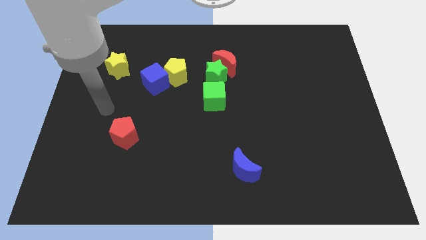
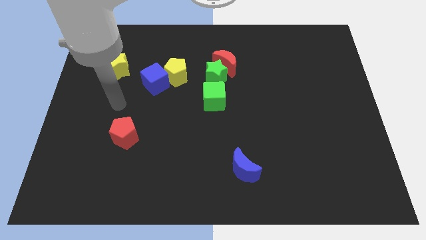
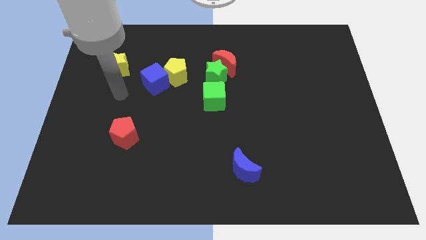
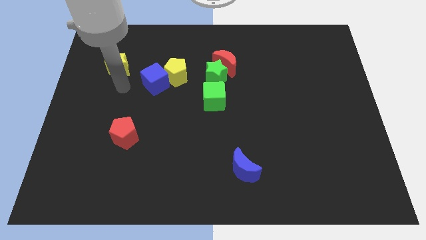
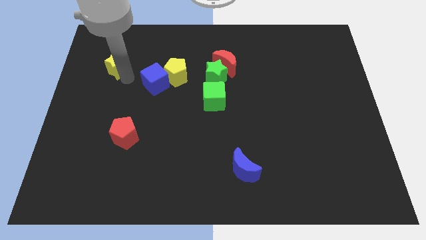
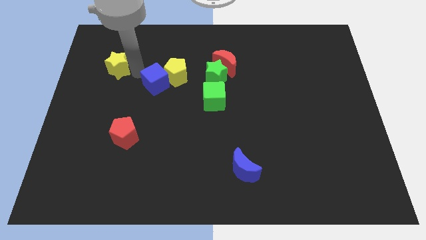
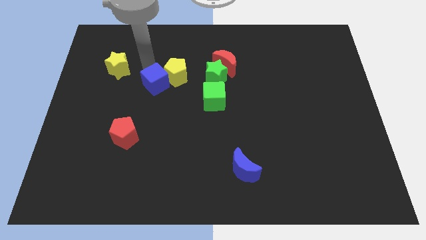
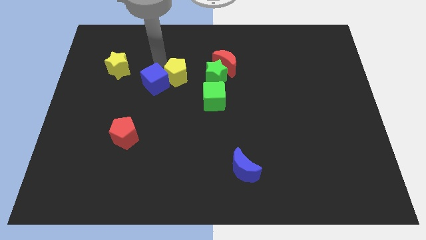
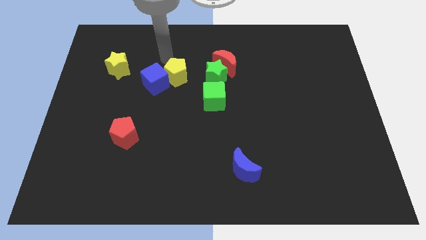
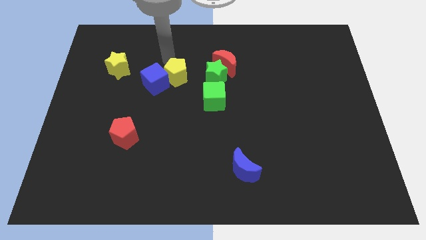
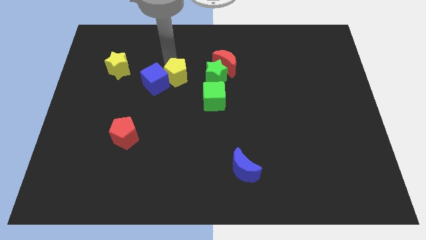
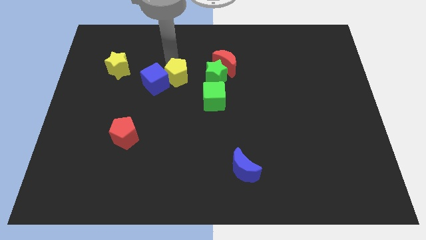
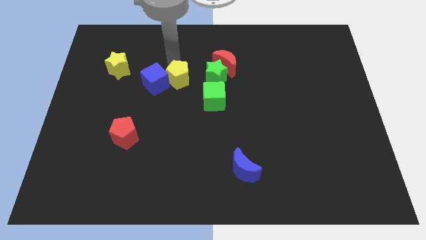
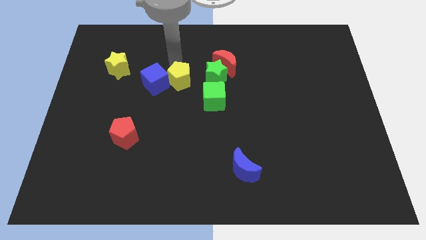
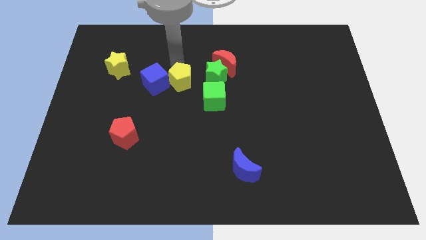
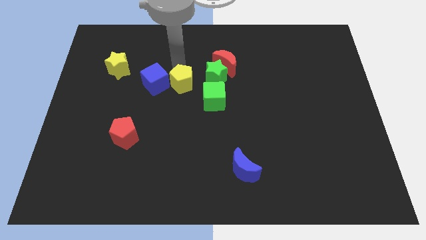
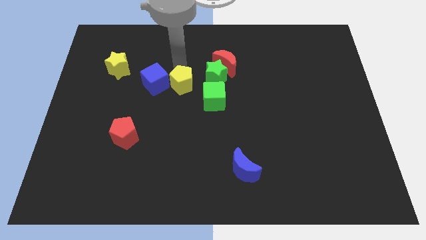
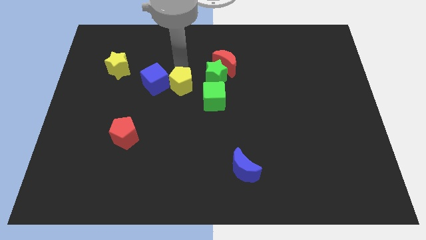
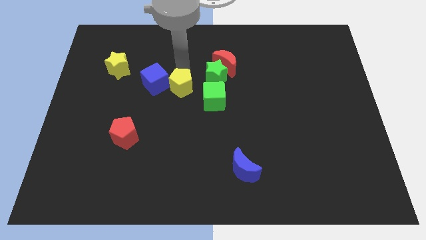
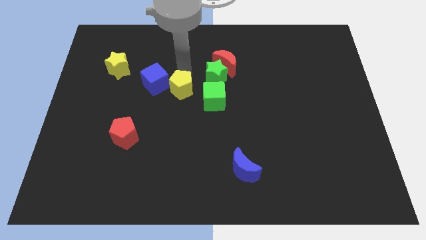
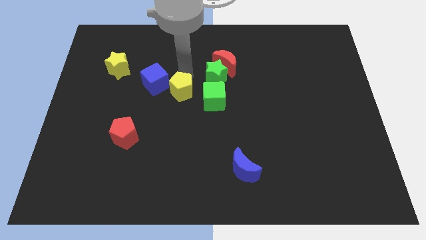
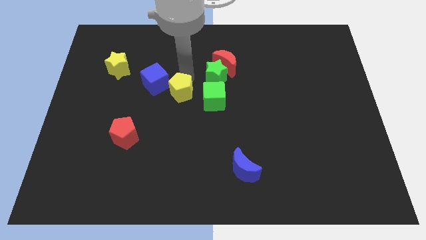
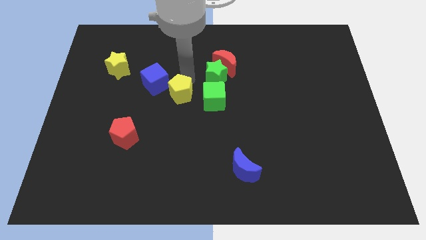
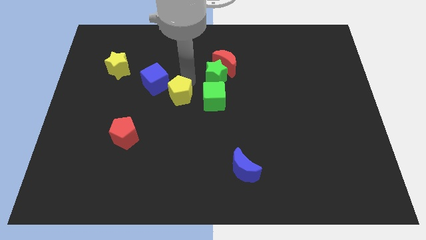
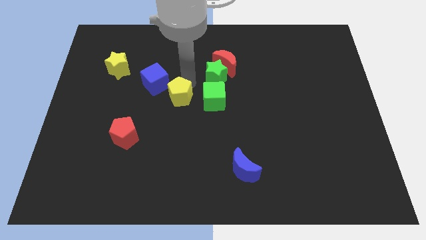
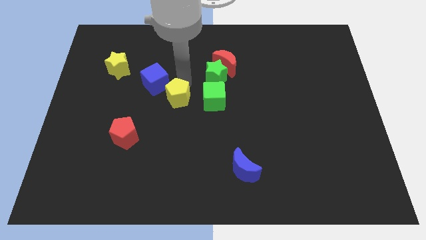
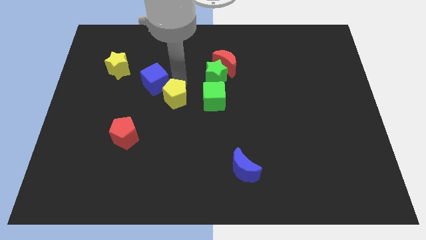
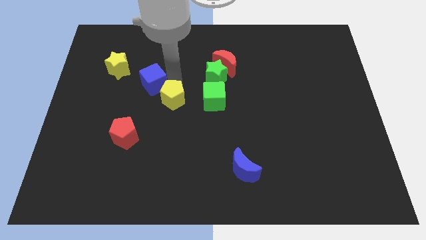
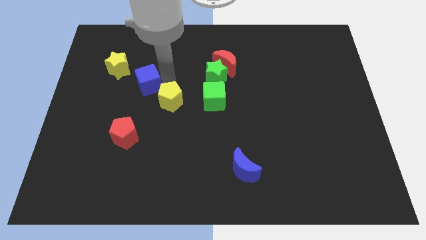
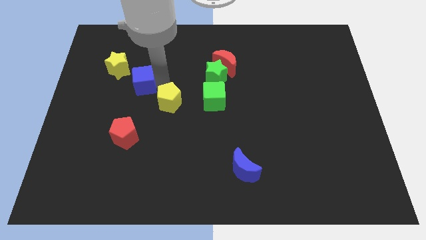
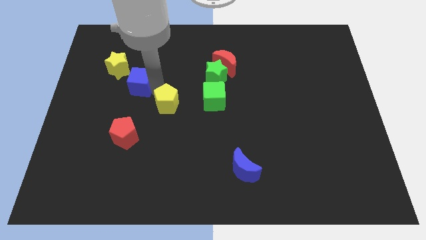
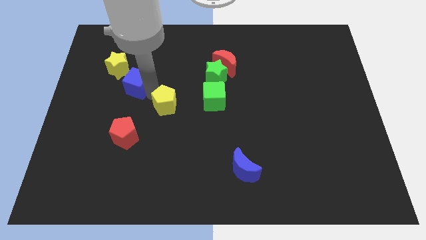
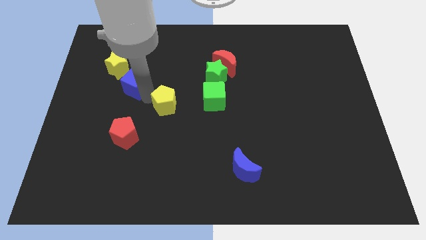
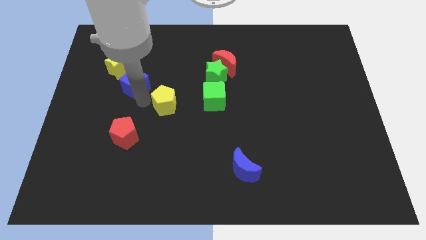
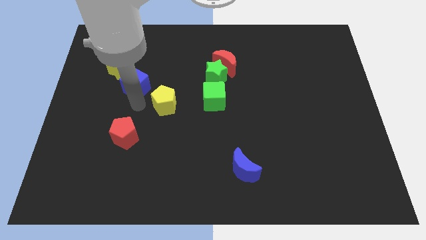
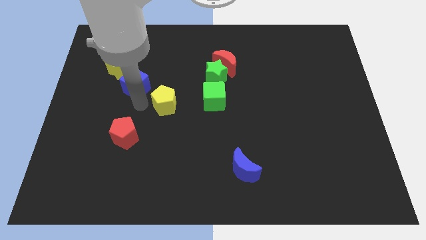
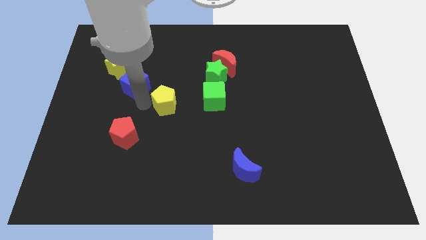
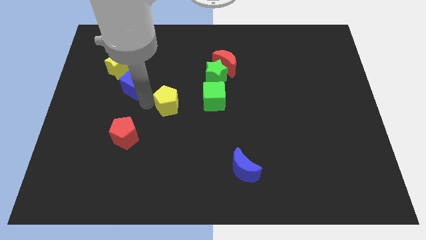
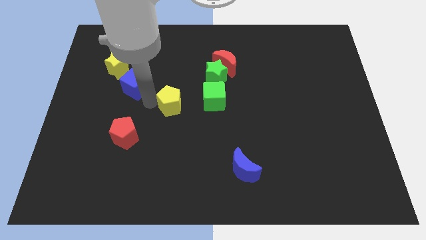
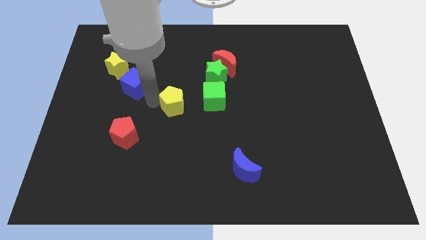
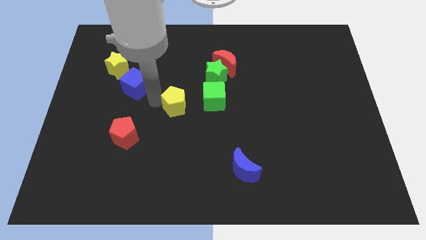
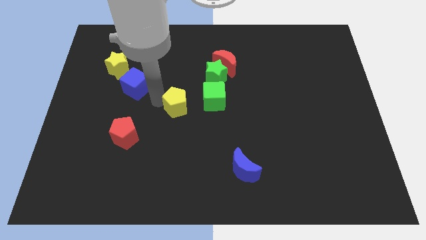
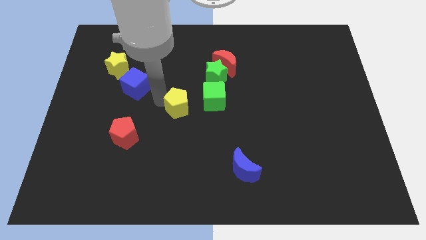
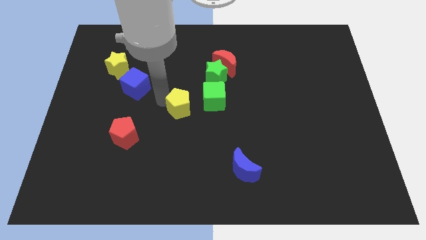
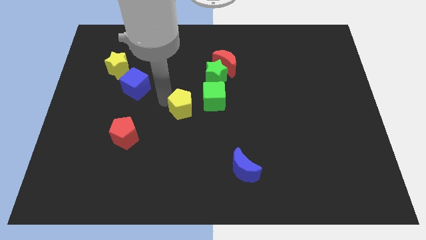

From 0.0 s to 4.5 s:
push the yellow pentagon diagonally down and right a little

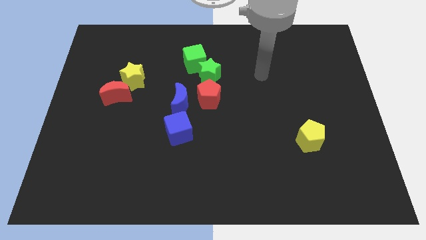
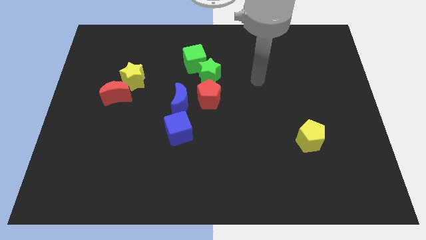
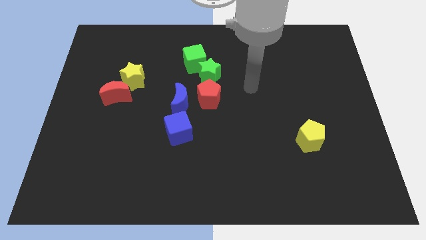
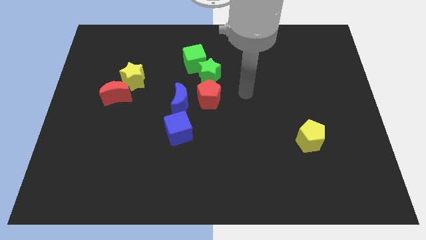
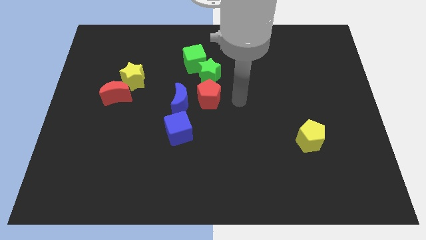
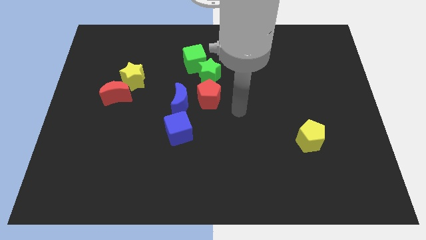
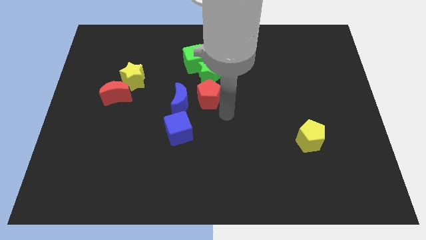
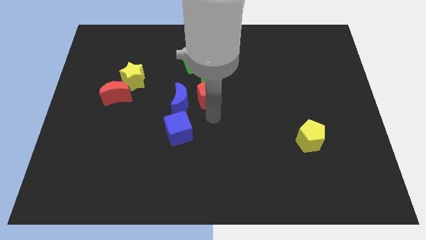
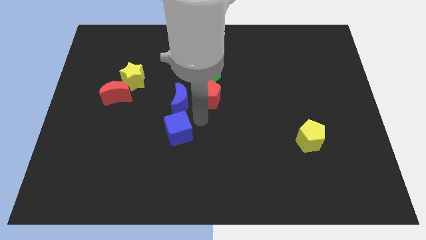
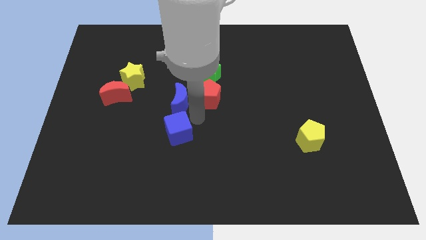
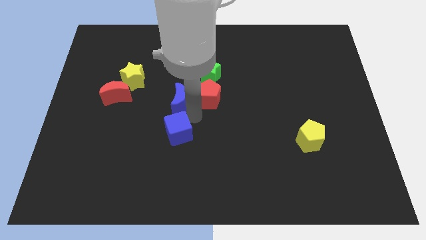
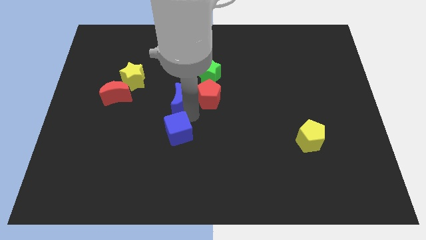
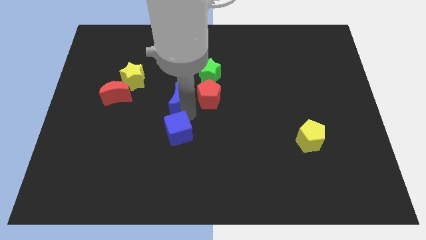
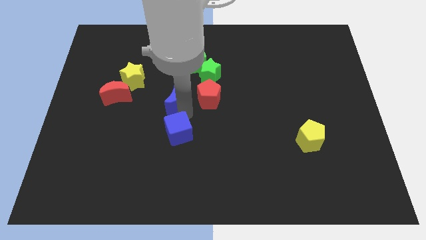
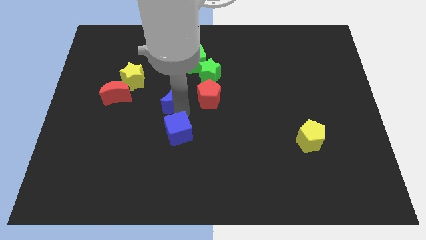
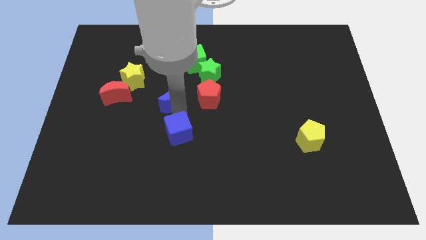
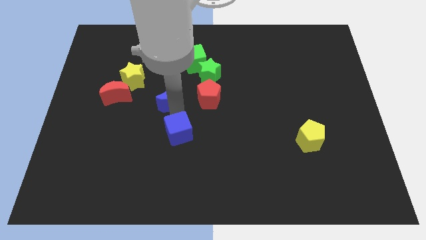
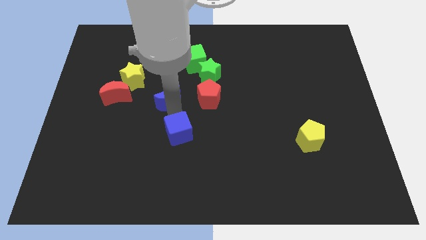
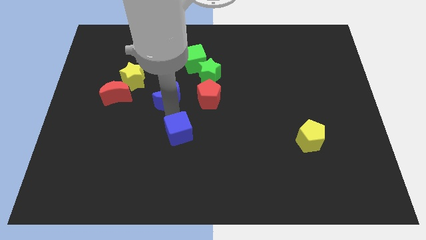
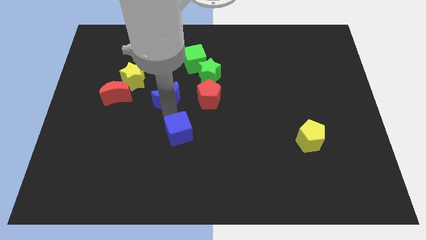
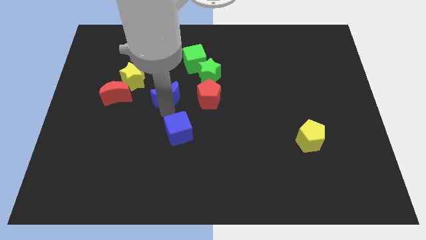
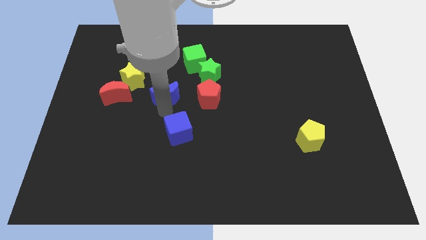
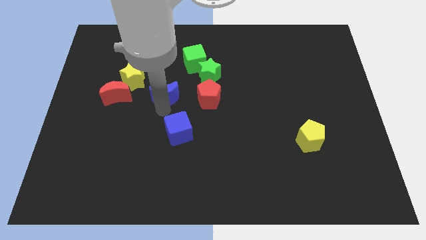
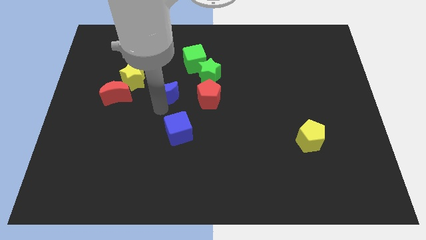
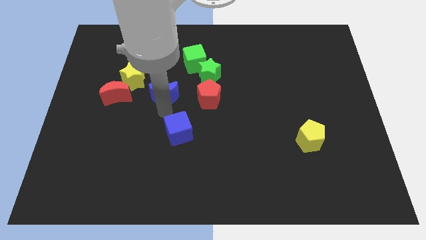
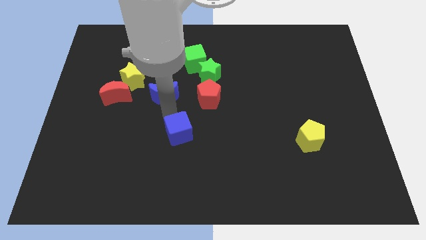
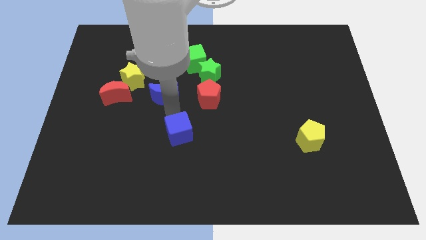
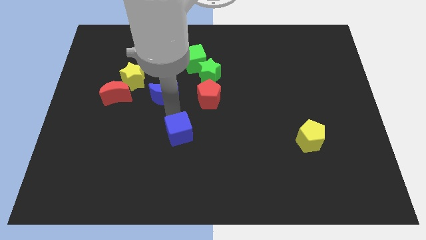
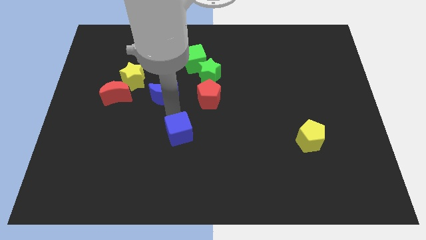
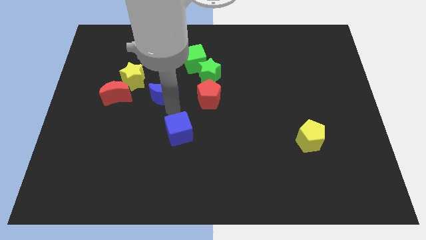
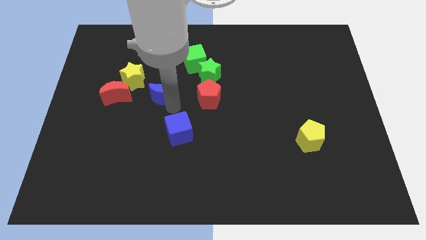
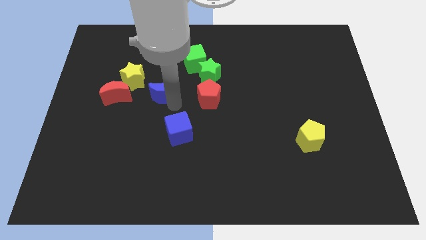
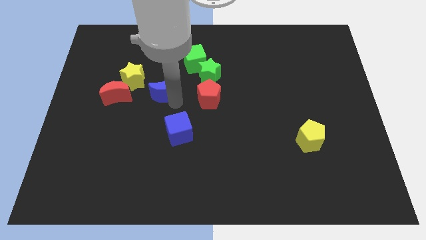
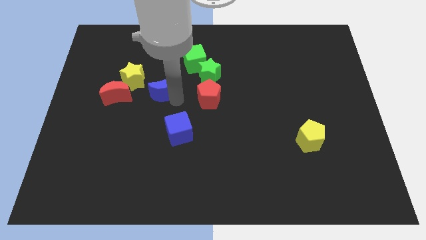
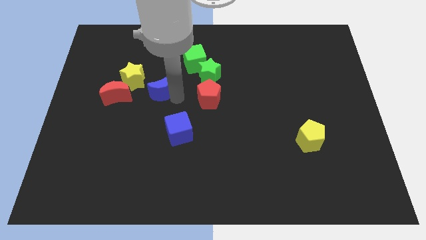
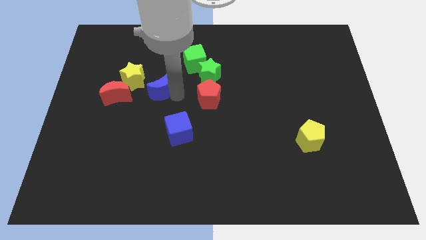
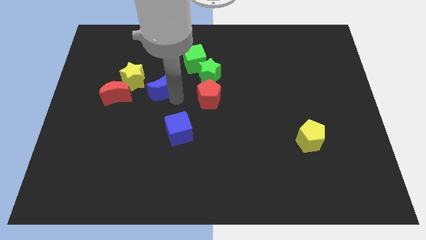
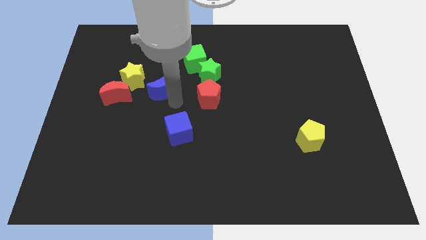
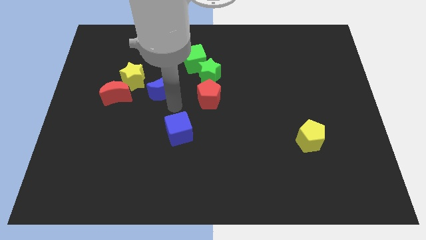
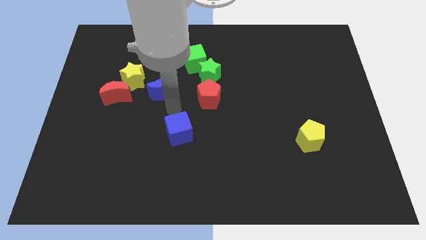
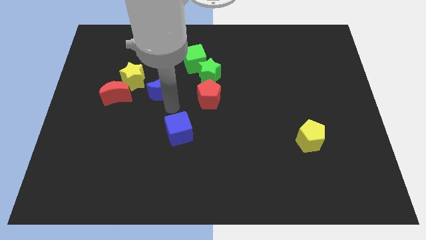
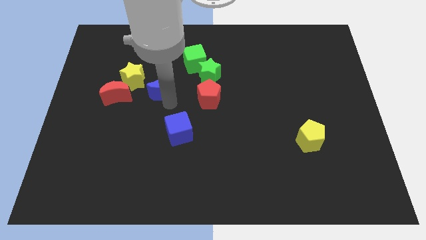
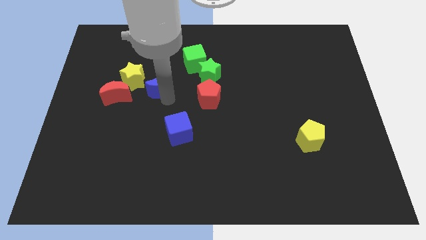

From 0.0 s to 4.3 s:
push the blue moon a bit diagonally up and left
